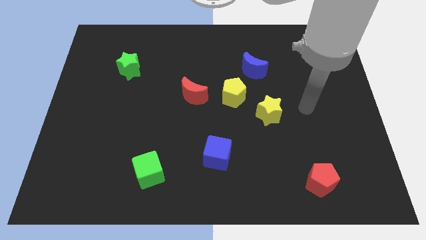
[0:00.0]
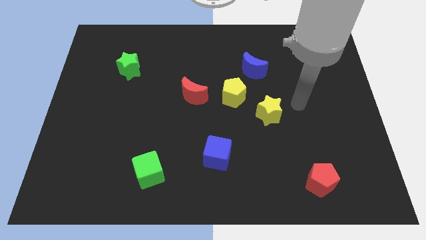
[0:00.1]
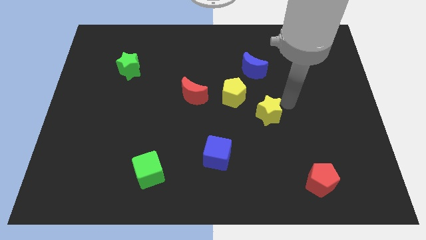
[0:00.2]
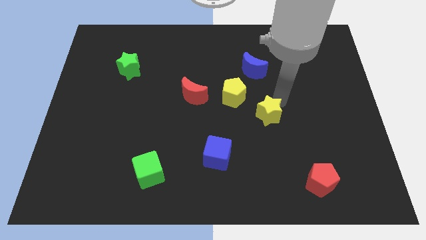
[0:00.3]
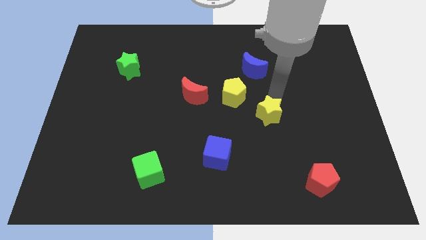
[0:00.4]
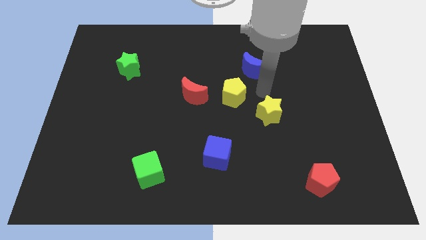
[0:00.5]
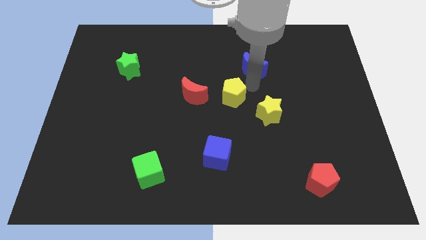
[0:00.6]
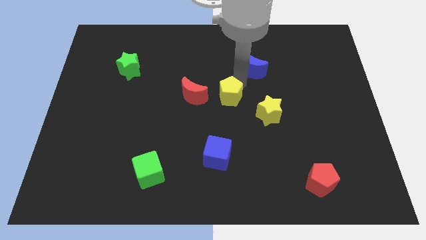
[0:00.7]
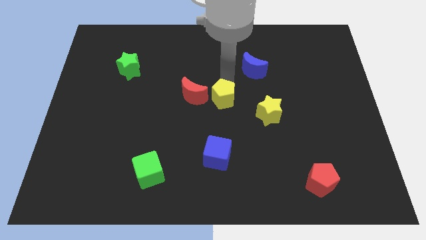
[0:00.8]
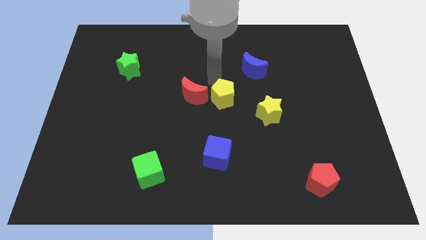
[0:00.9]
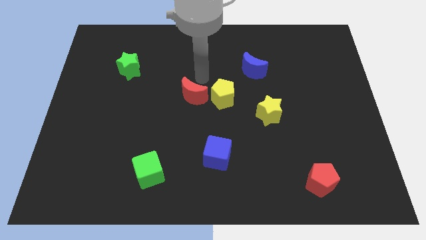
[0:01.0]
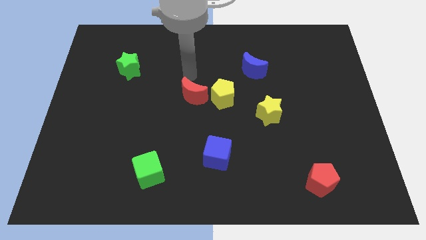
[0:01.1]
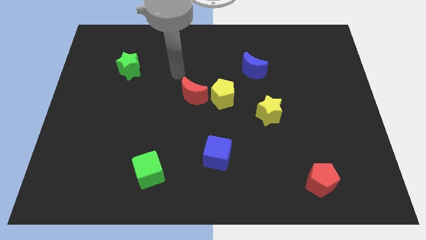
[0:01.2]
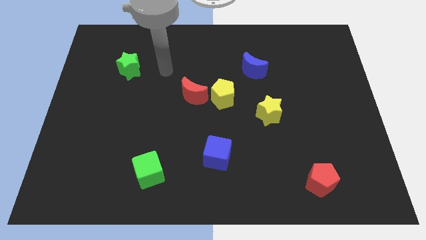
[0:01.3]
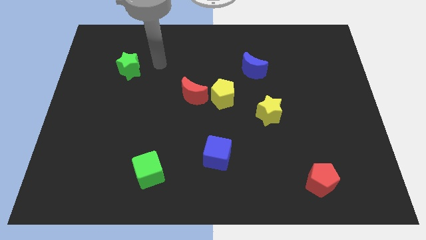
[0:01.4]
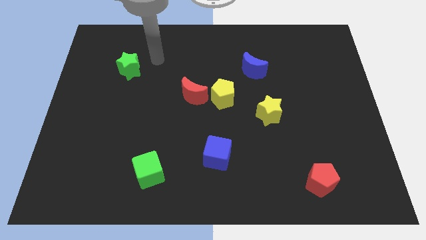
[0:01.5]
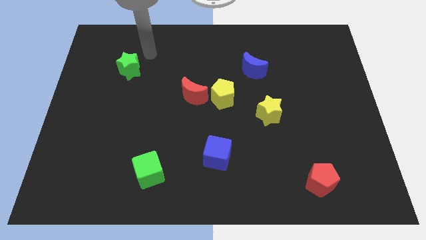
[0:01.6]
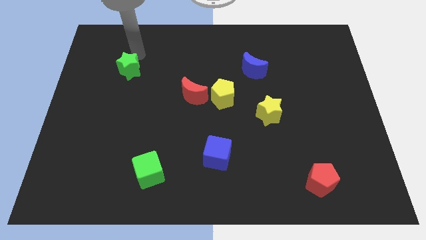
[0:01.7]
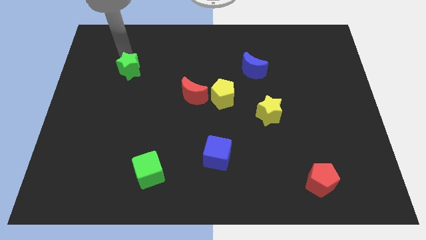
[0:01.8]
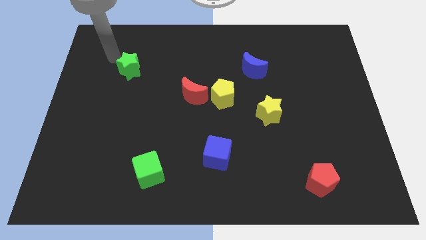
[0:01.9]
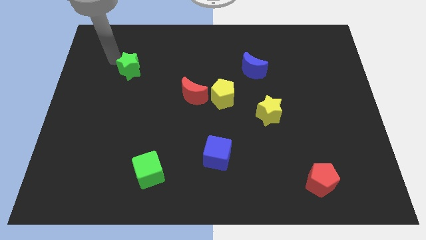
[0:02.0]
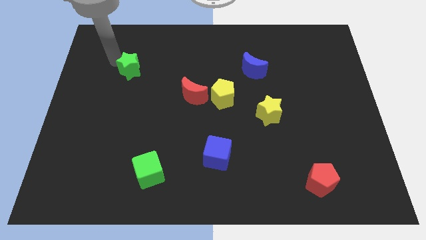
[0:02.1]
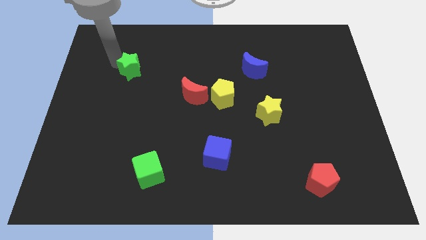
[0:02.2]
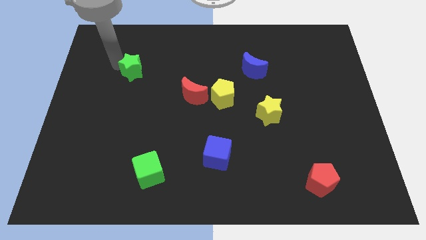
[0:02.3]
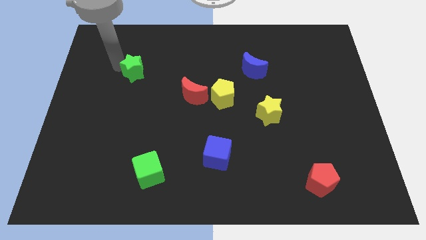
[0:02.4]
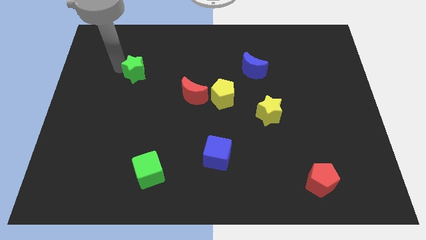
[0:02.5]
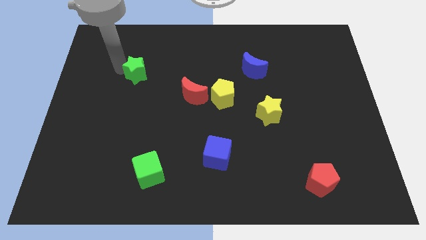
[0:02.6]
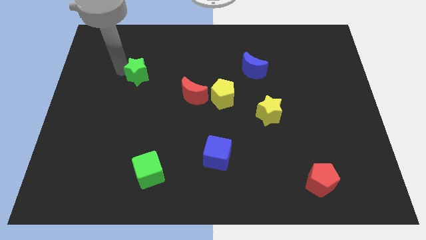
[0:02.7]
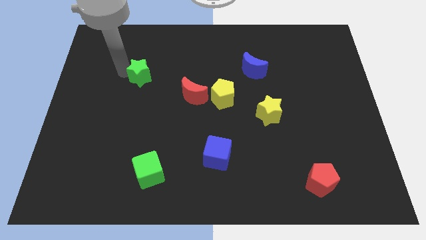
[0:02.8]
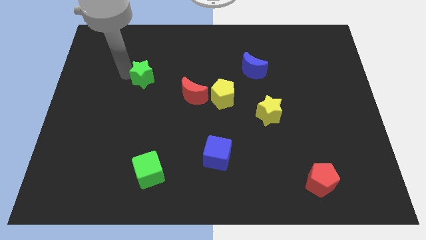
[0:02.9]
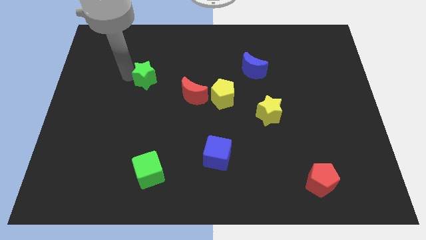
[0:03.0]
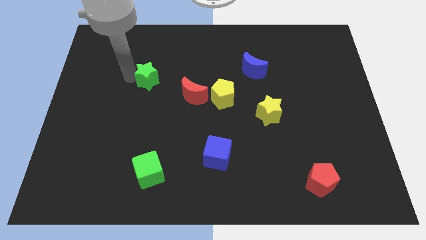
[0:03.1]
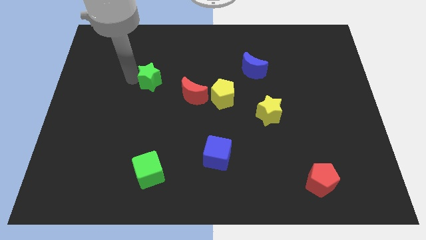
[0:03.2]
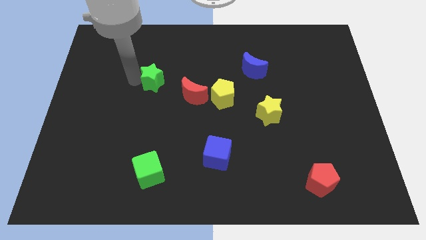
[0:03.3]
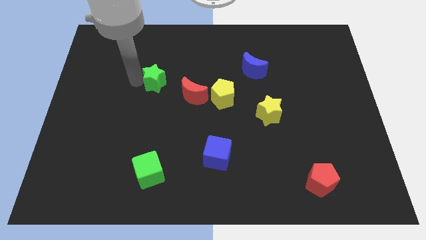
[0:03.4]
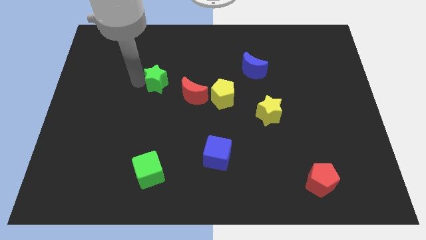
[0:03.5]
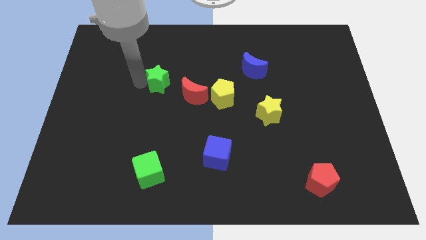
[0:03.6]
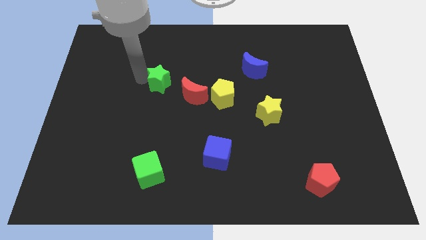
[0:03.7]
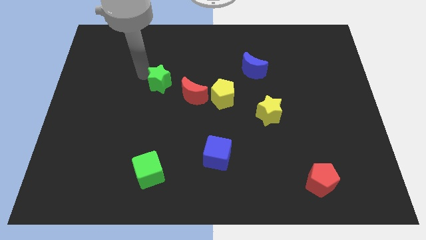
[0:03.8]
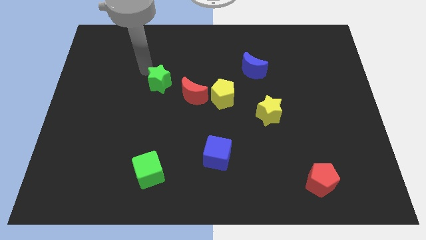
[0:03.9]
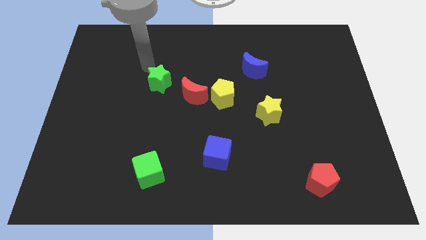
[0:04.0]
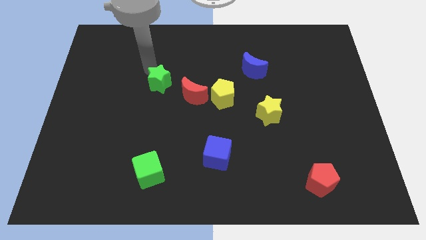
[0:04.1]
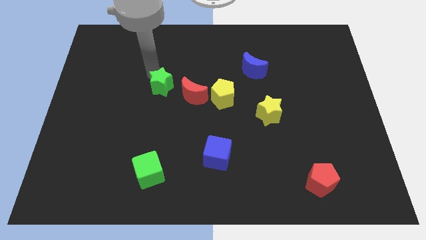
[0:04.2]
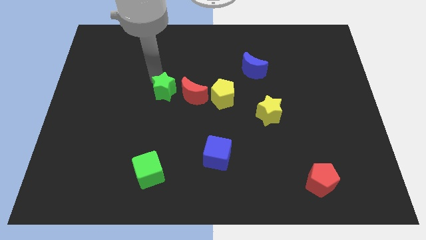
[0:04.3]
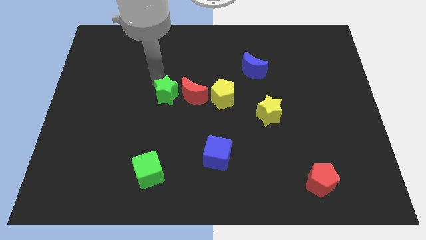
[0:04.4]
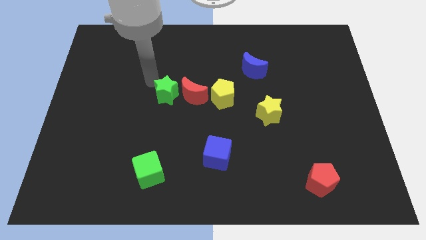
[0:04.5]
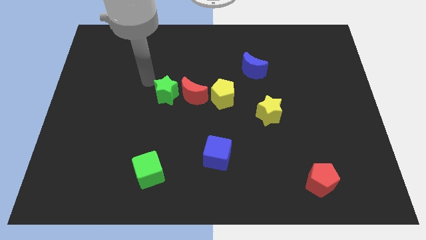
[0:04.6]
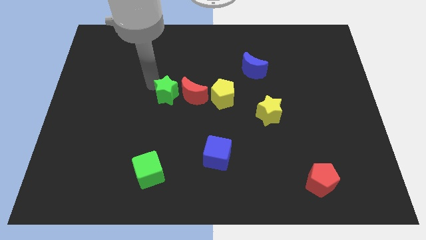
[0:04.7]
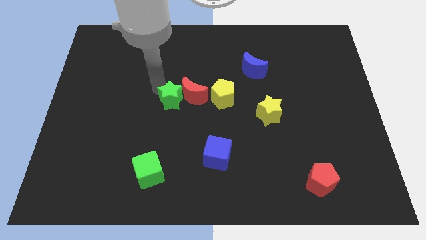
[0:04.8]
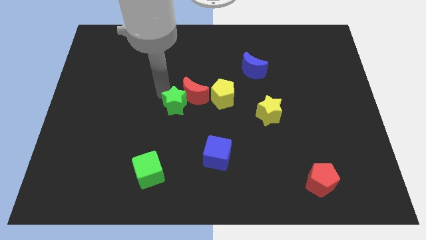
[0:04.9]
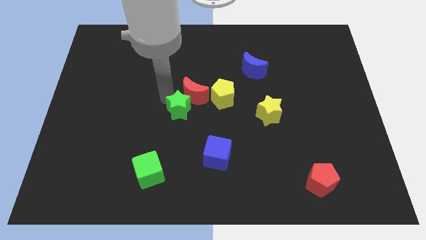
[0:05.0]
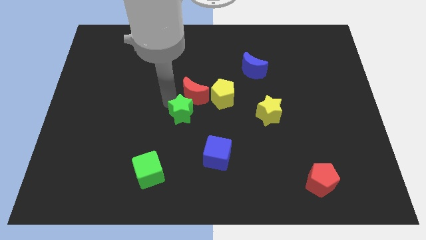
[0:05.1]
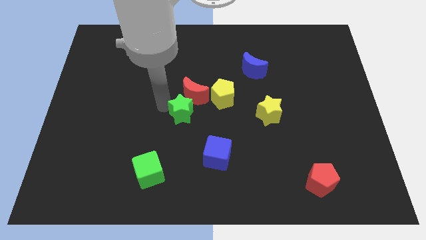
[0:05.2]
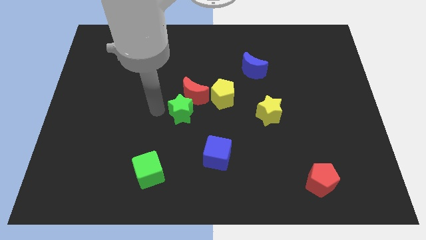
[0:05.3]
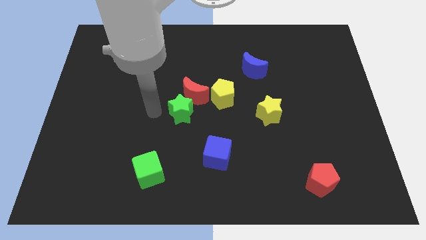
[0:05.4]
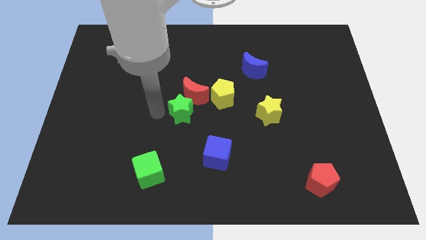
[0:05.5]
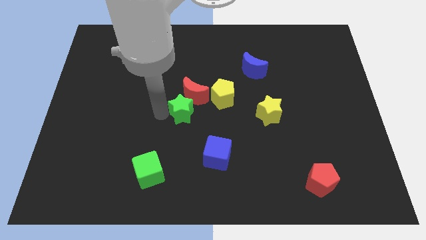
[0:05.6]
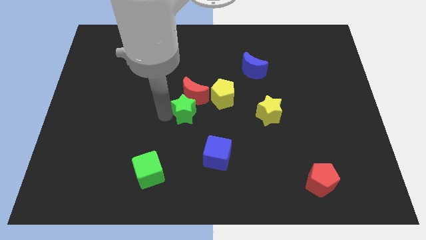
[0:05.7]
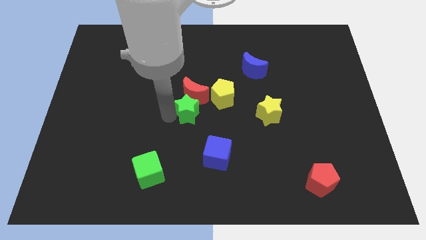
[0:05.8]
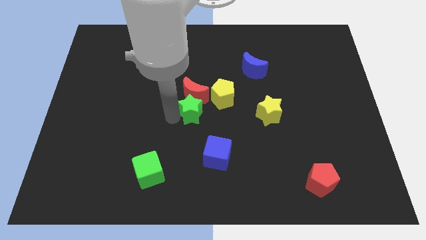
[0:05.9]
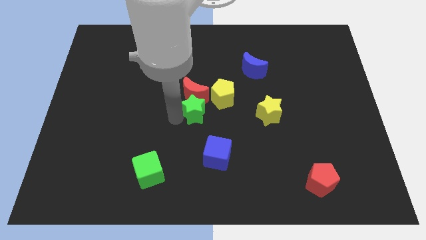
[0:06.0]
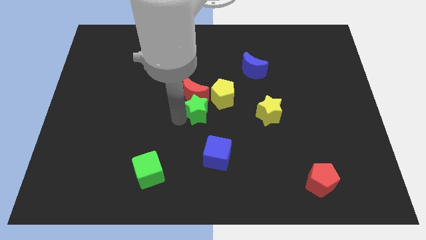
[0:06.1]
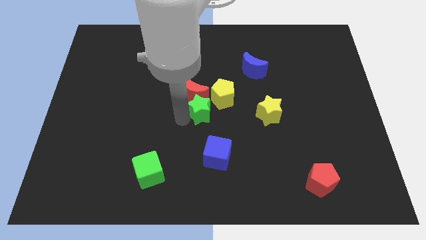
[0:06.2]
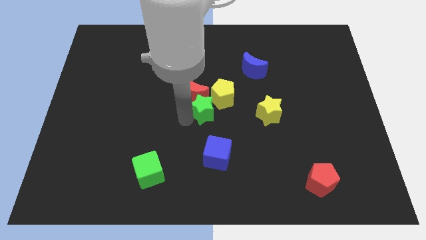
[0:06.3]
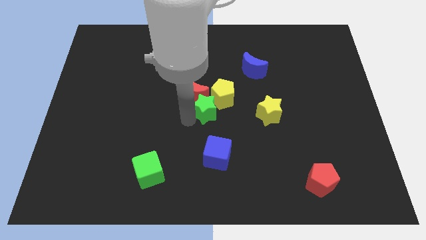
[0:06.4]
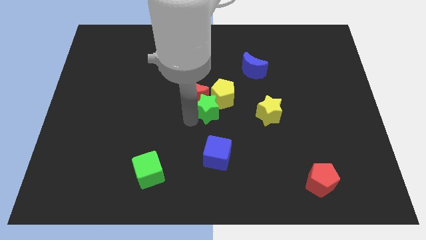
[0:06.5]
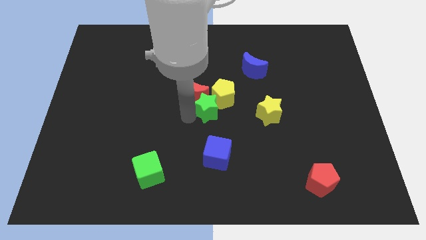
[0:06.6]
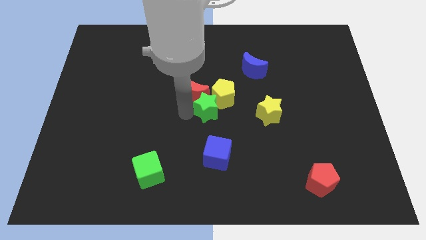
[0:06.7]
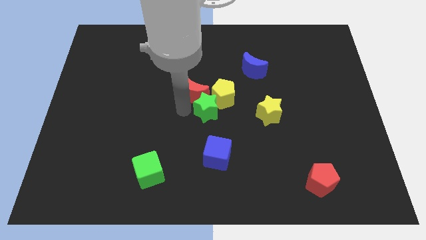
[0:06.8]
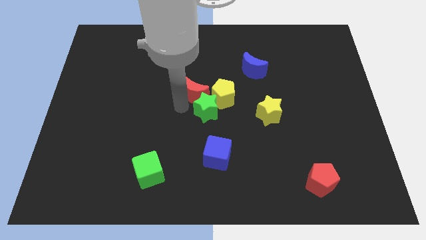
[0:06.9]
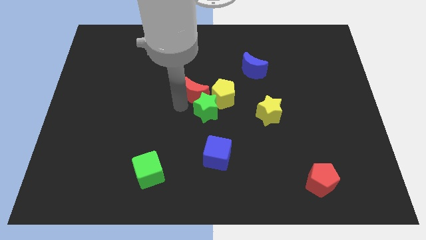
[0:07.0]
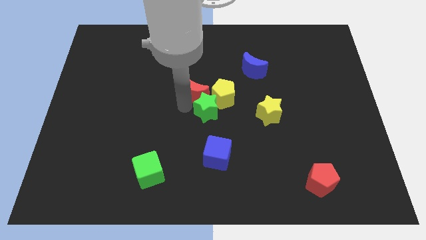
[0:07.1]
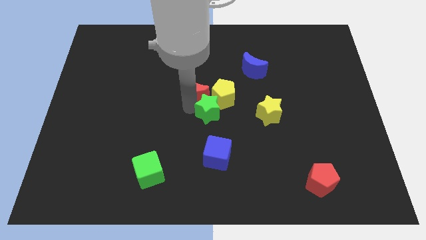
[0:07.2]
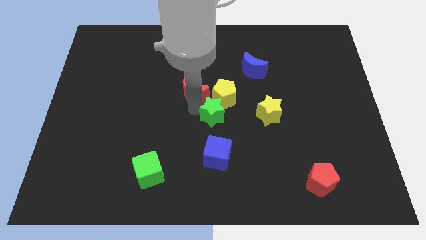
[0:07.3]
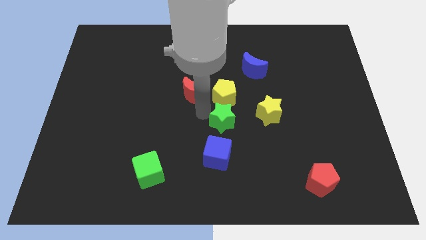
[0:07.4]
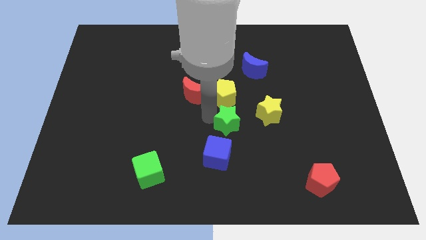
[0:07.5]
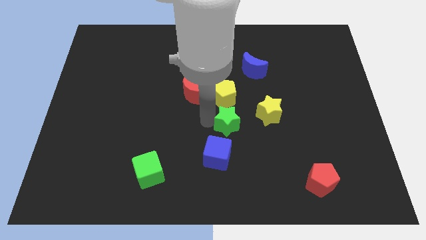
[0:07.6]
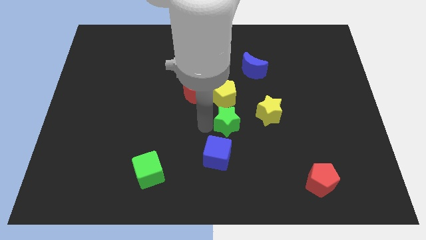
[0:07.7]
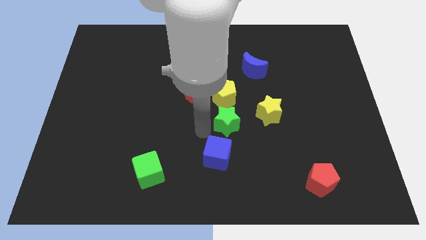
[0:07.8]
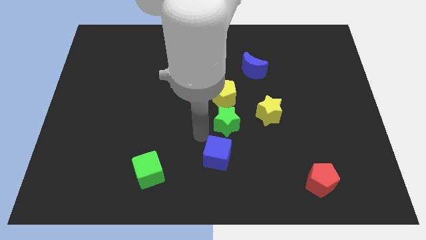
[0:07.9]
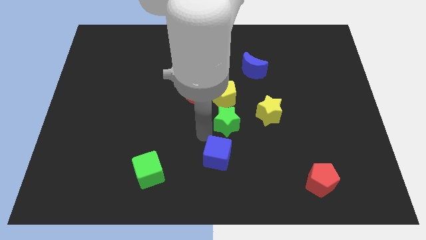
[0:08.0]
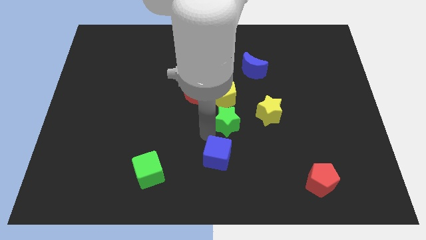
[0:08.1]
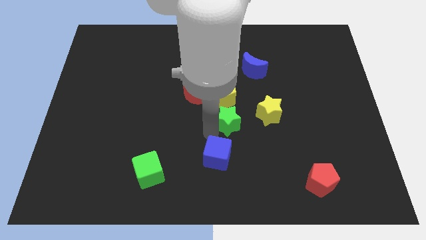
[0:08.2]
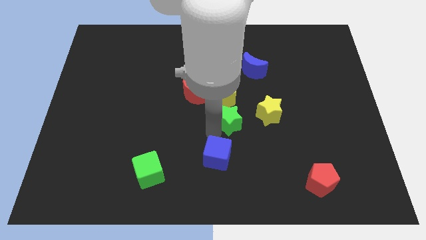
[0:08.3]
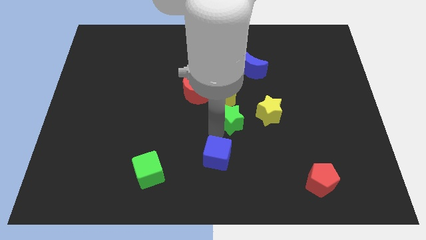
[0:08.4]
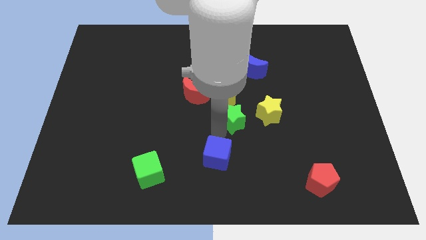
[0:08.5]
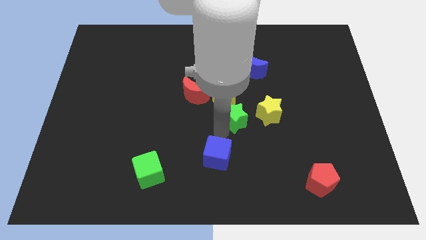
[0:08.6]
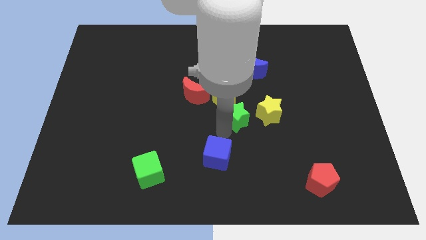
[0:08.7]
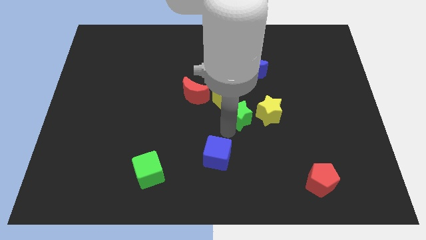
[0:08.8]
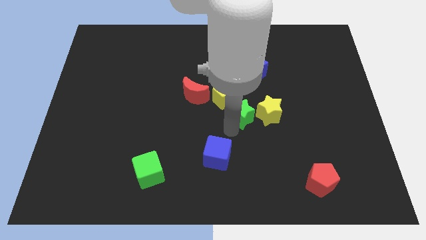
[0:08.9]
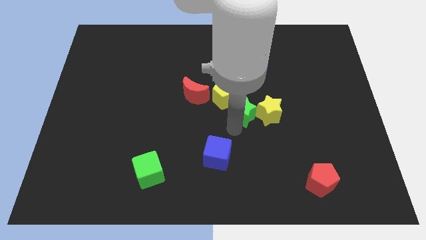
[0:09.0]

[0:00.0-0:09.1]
slide the green star next to the yellow star
